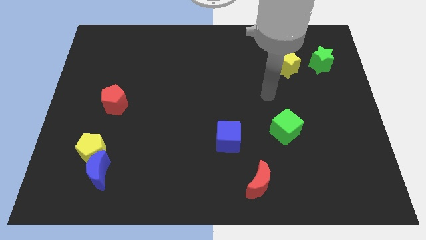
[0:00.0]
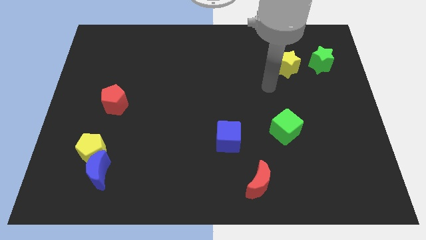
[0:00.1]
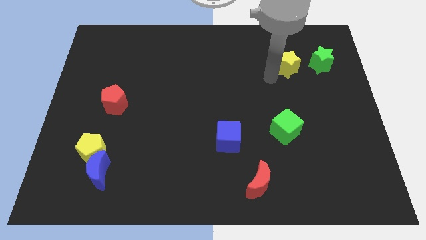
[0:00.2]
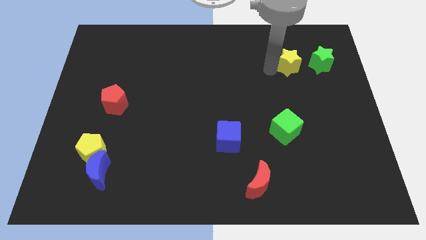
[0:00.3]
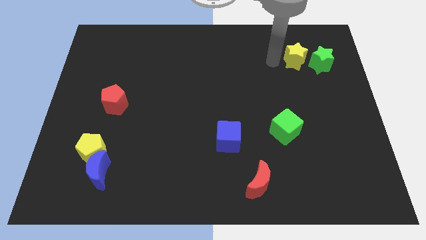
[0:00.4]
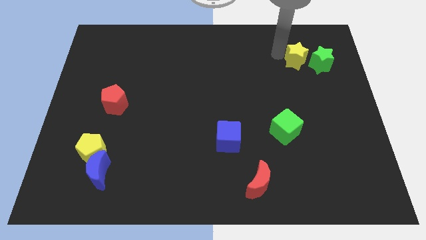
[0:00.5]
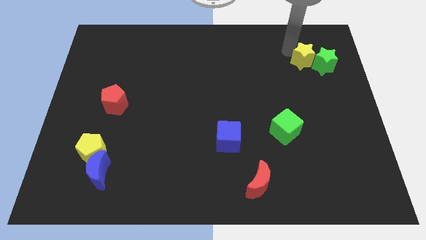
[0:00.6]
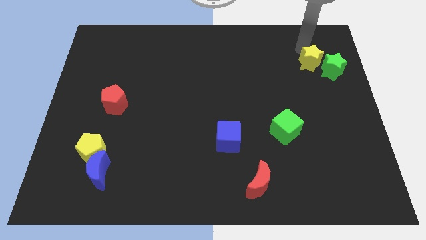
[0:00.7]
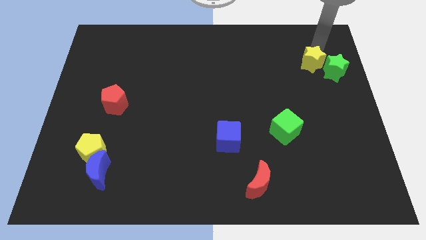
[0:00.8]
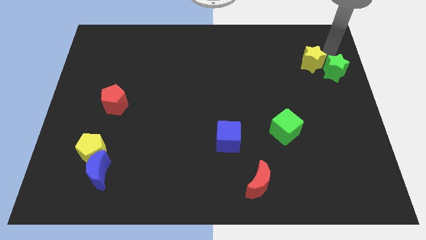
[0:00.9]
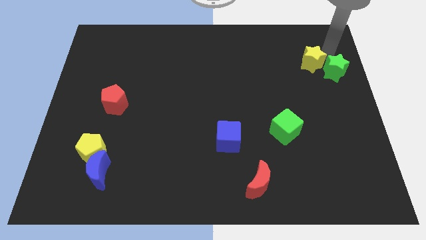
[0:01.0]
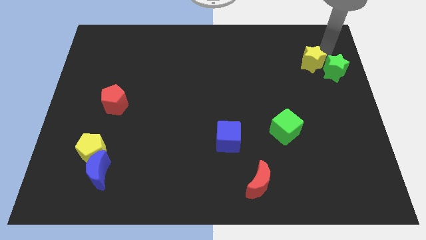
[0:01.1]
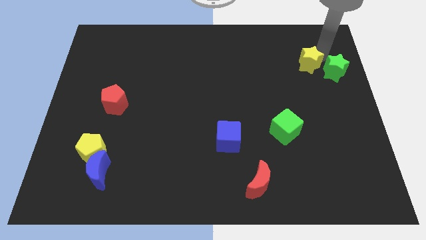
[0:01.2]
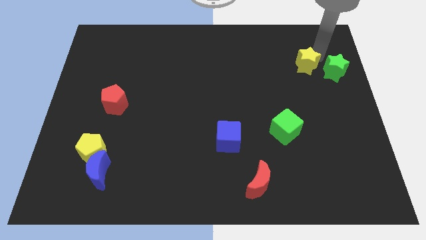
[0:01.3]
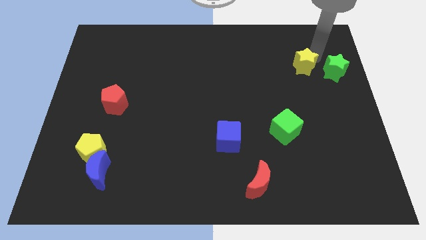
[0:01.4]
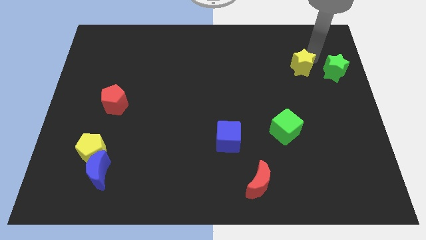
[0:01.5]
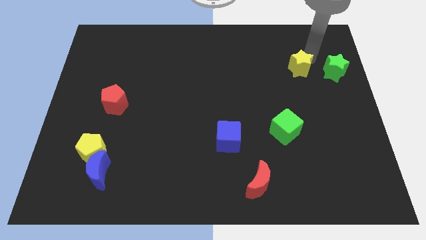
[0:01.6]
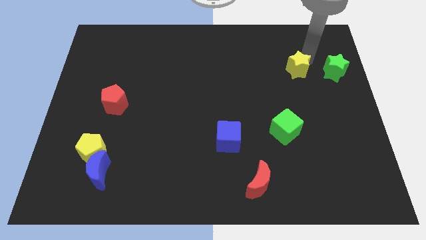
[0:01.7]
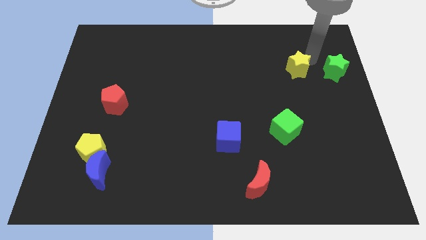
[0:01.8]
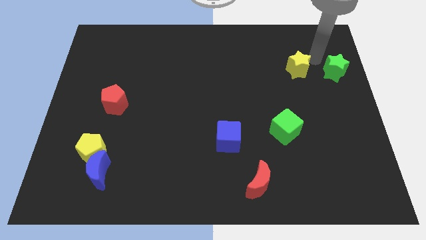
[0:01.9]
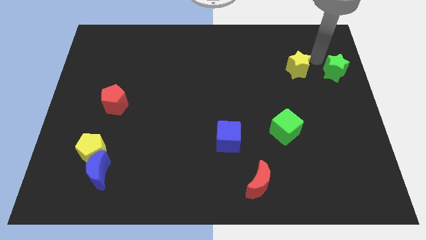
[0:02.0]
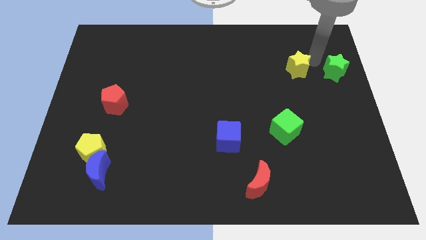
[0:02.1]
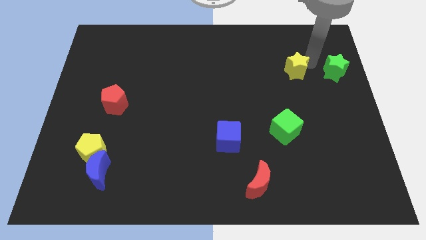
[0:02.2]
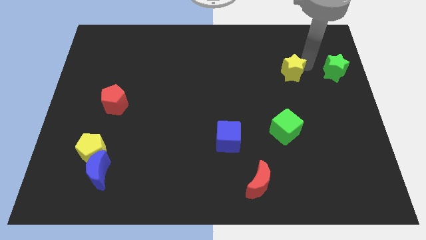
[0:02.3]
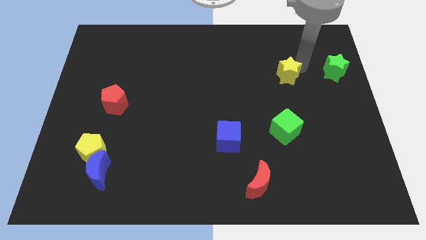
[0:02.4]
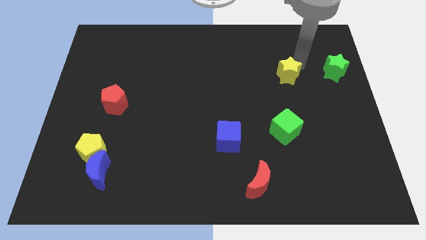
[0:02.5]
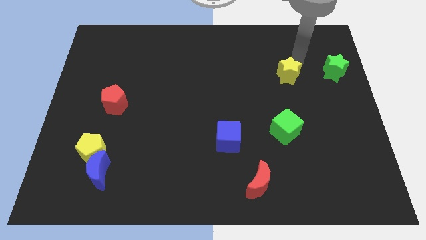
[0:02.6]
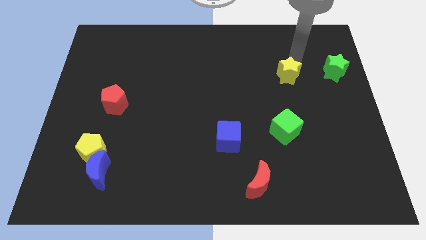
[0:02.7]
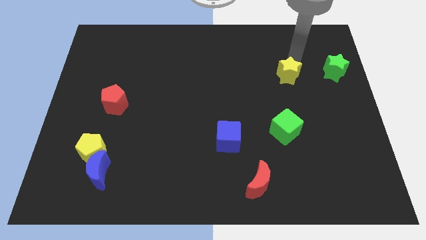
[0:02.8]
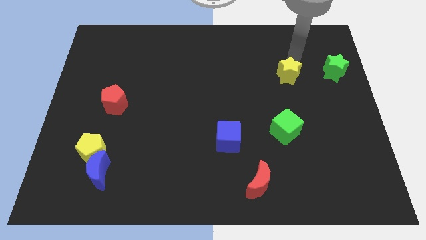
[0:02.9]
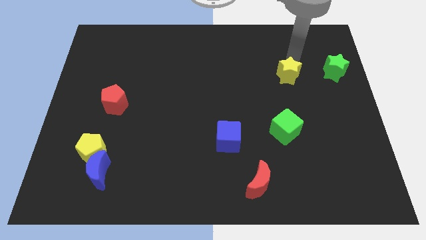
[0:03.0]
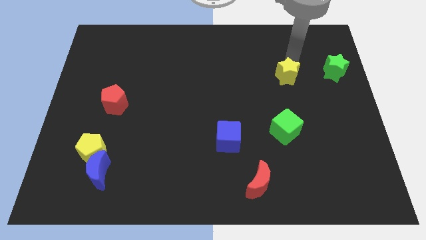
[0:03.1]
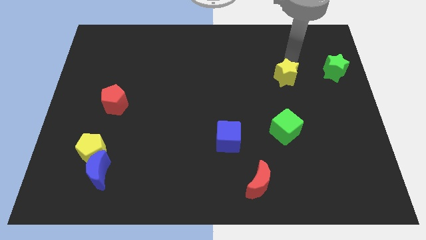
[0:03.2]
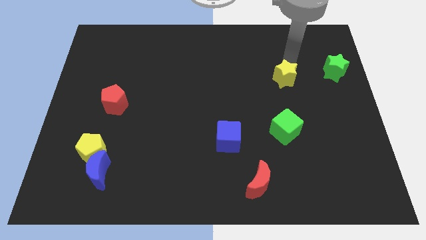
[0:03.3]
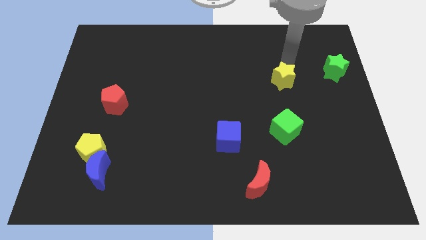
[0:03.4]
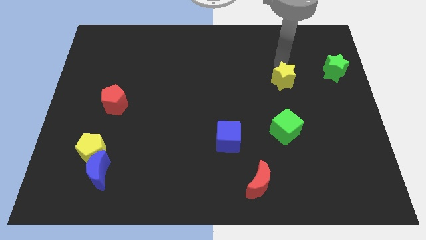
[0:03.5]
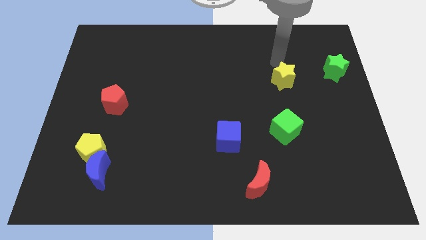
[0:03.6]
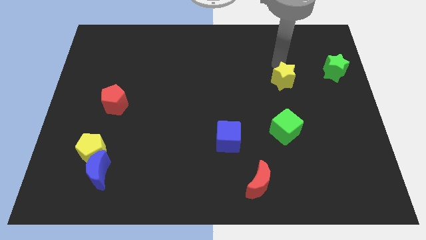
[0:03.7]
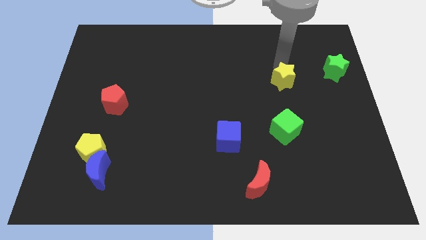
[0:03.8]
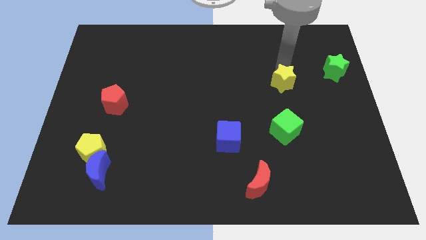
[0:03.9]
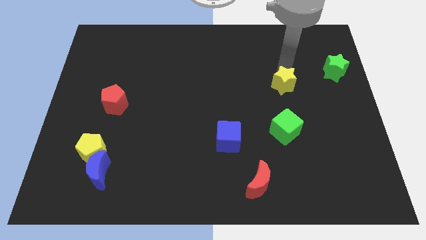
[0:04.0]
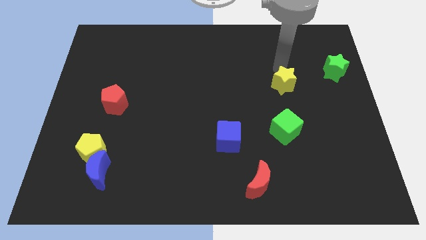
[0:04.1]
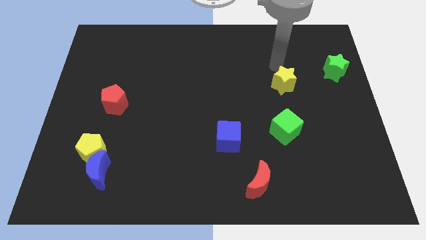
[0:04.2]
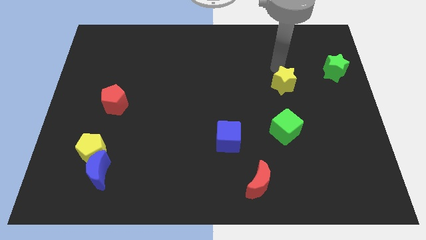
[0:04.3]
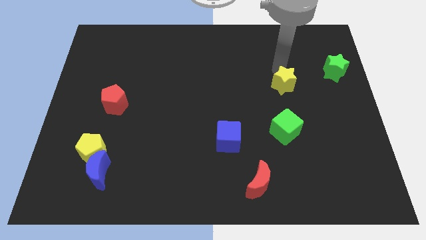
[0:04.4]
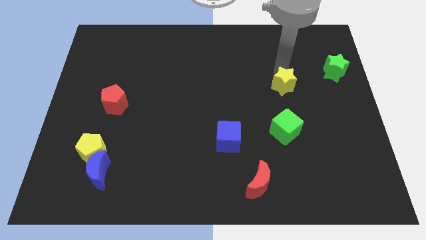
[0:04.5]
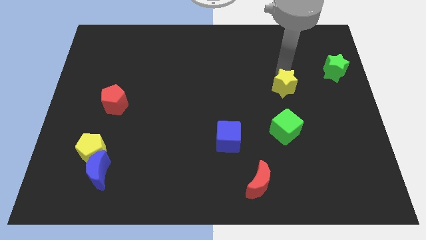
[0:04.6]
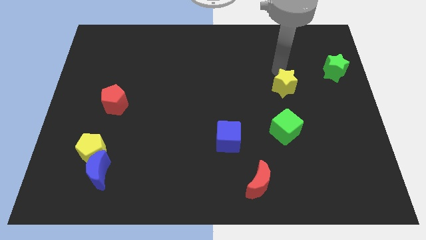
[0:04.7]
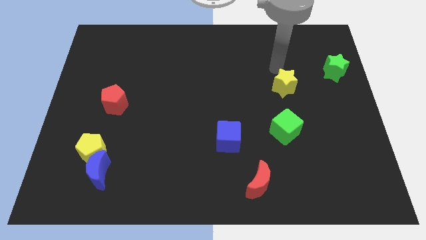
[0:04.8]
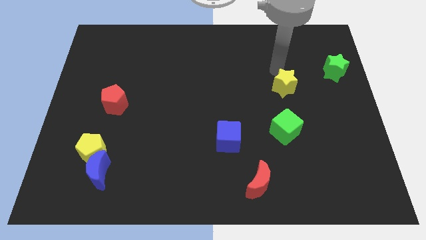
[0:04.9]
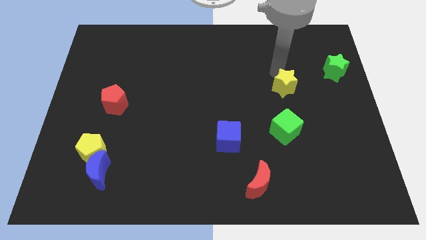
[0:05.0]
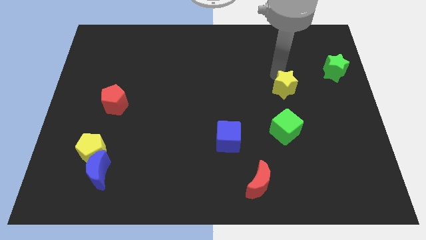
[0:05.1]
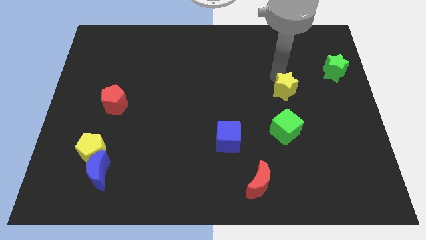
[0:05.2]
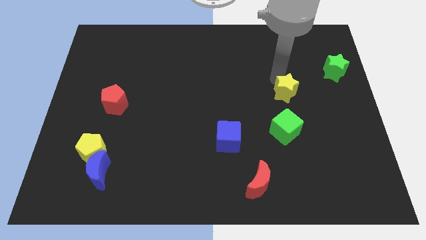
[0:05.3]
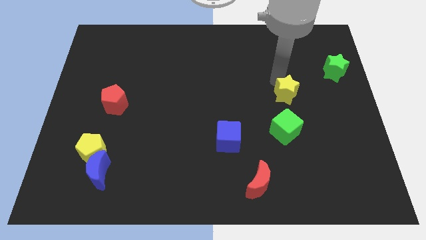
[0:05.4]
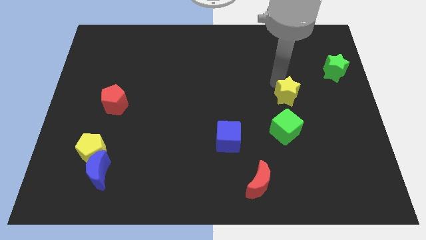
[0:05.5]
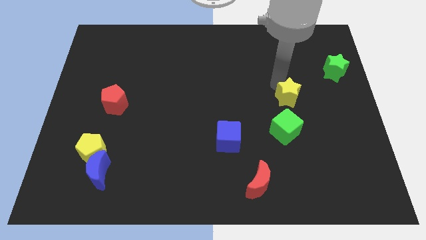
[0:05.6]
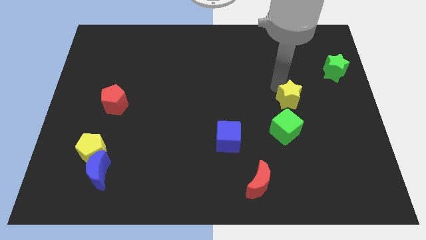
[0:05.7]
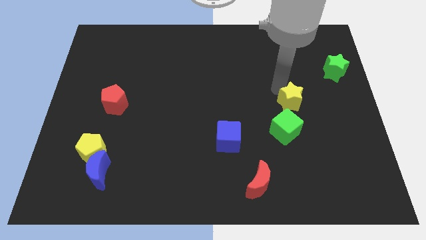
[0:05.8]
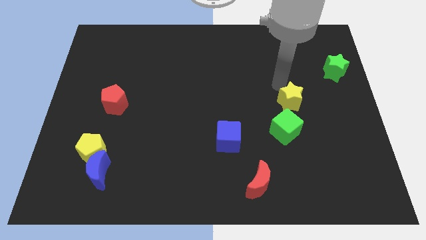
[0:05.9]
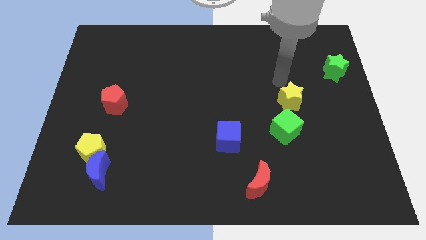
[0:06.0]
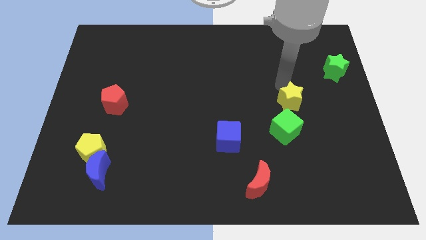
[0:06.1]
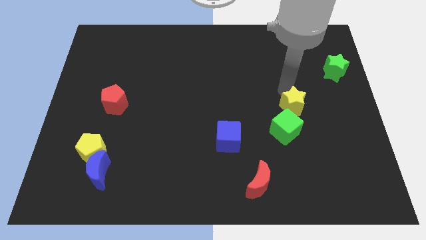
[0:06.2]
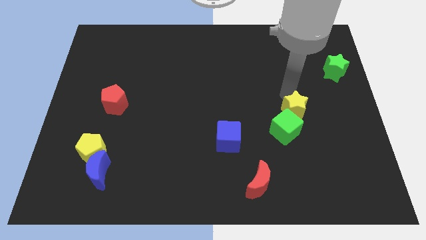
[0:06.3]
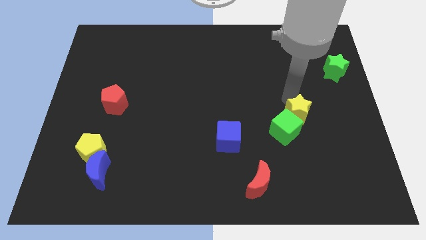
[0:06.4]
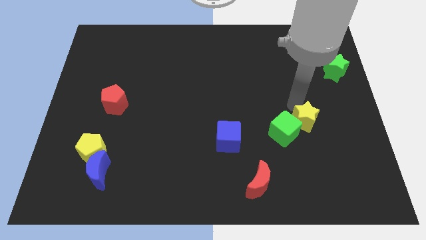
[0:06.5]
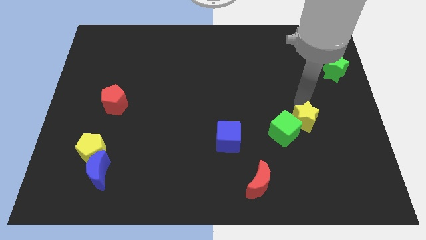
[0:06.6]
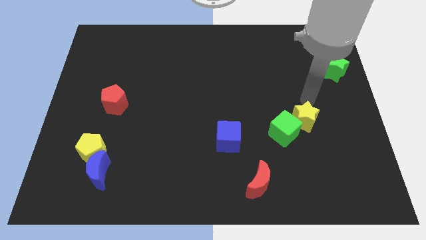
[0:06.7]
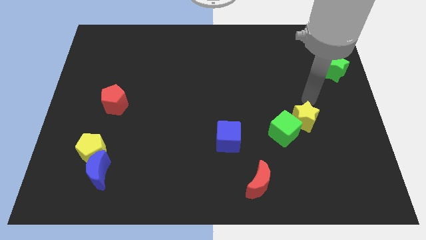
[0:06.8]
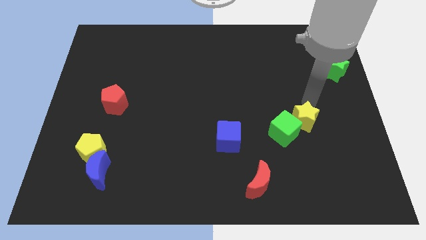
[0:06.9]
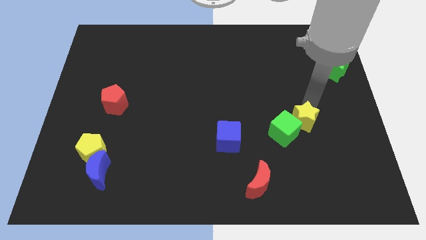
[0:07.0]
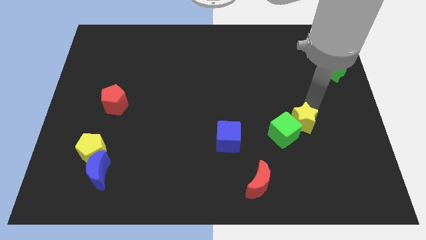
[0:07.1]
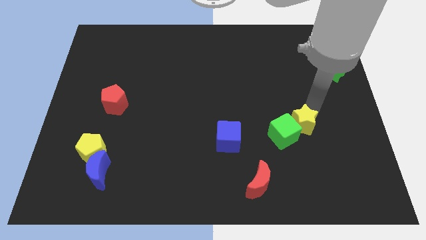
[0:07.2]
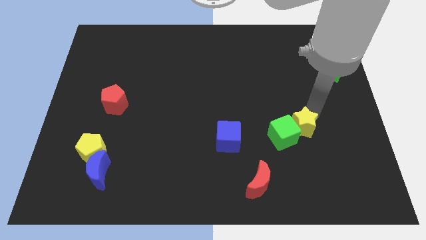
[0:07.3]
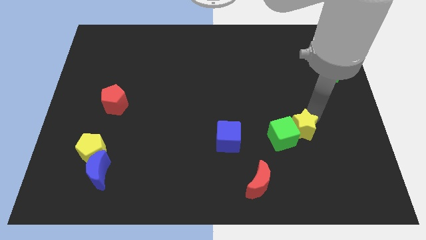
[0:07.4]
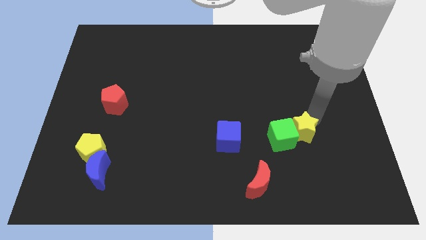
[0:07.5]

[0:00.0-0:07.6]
move the yellow star downwards

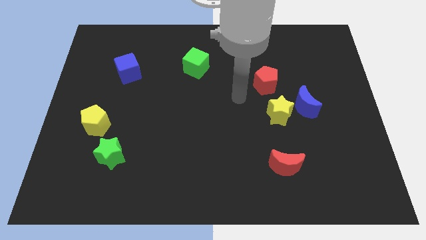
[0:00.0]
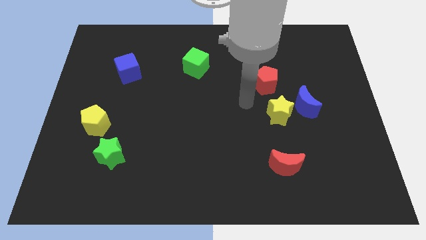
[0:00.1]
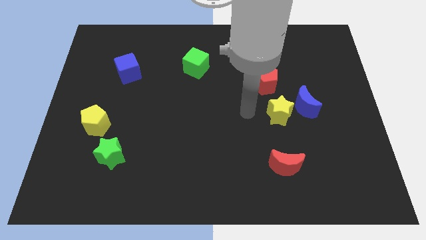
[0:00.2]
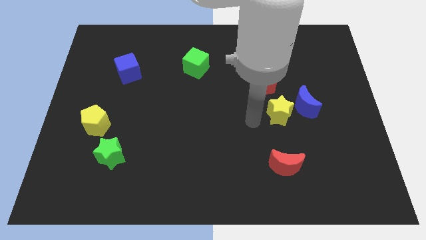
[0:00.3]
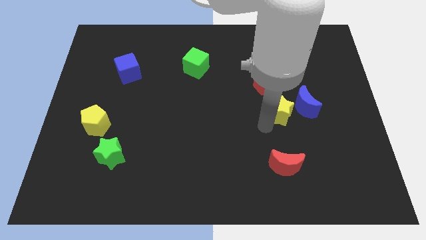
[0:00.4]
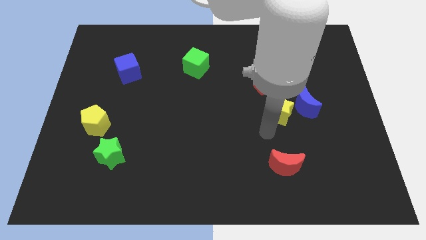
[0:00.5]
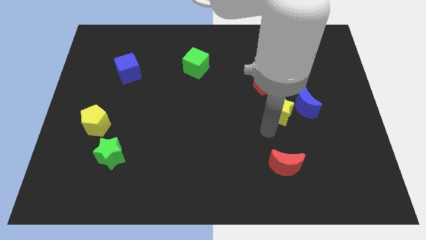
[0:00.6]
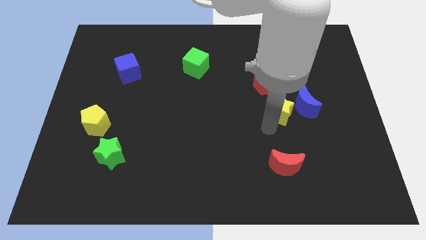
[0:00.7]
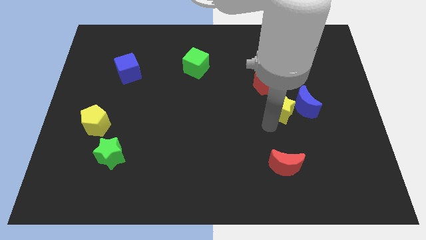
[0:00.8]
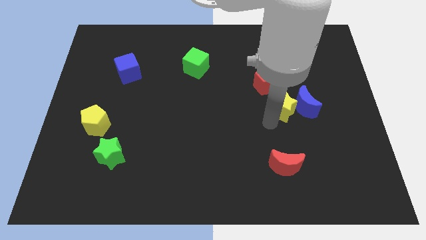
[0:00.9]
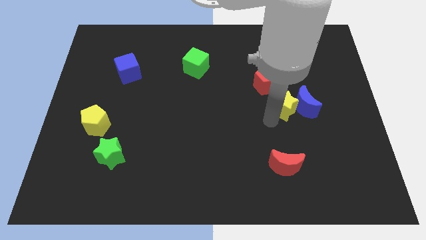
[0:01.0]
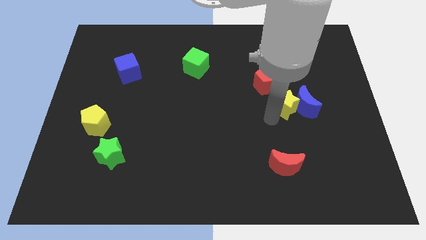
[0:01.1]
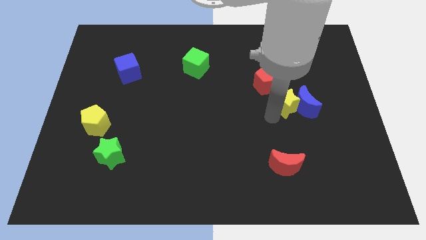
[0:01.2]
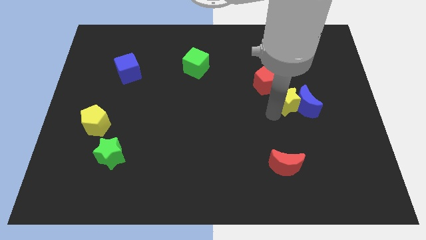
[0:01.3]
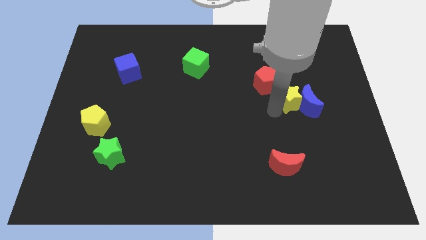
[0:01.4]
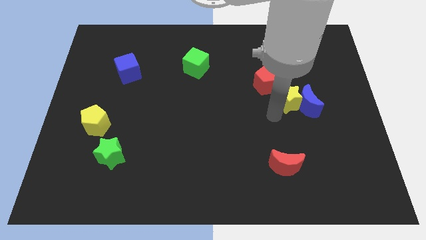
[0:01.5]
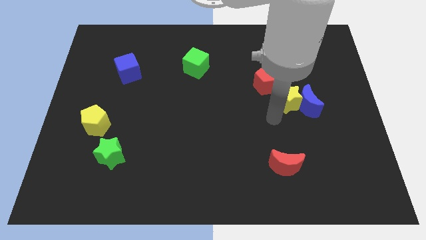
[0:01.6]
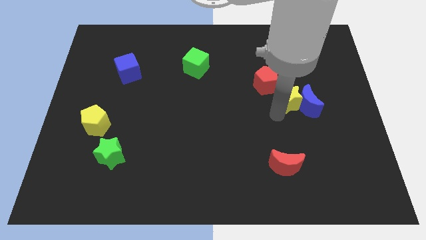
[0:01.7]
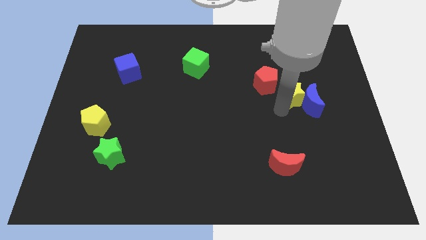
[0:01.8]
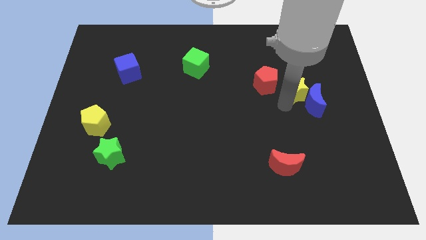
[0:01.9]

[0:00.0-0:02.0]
slide the yellow star somewhat up and right diagonally
